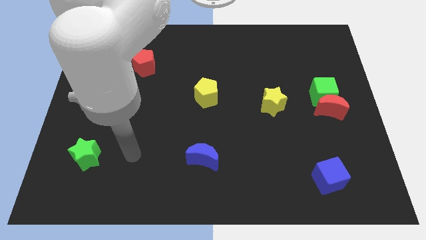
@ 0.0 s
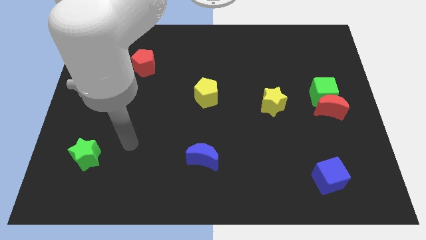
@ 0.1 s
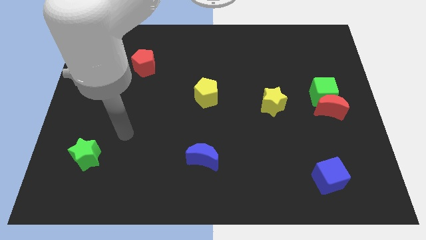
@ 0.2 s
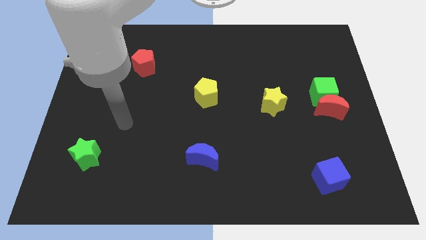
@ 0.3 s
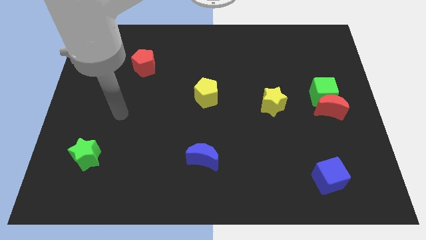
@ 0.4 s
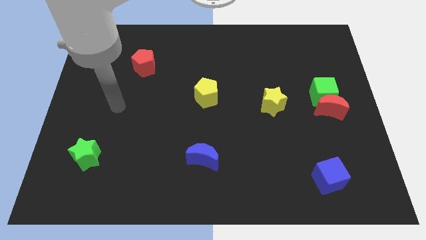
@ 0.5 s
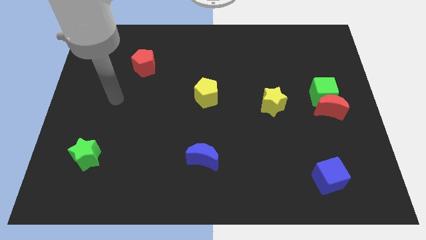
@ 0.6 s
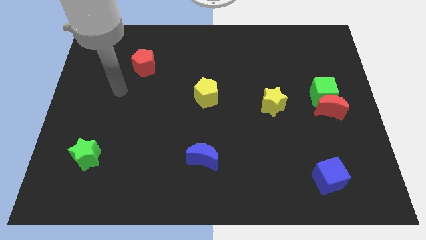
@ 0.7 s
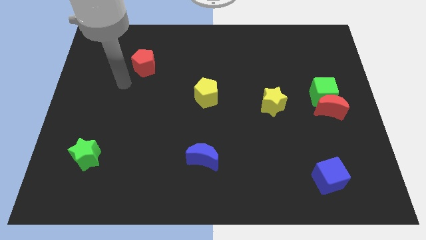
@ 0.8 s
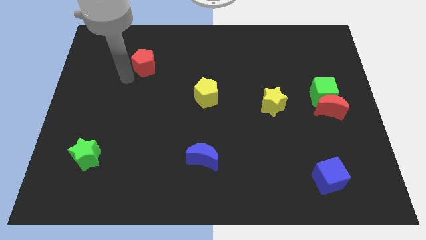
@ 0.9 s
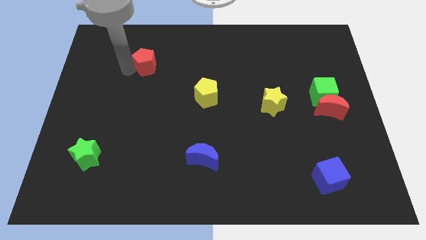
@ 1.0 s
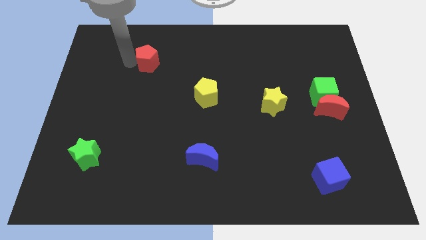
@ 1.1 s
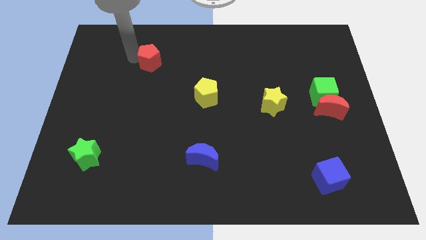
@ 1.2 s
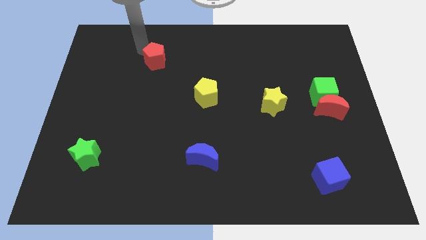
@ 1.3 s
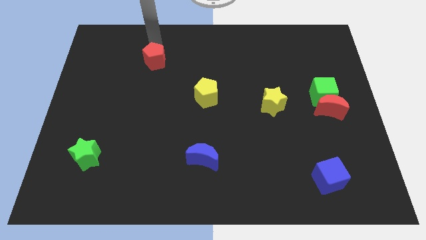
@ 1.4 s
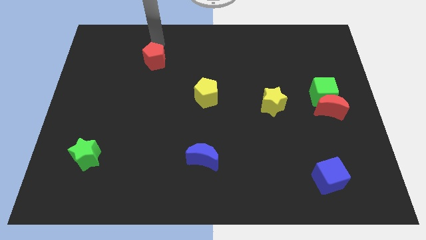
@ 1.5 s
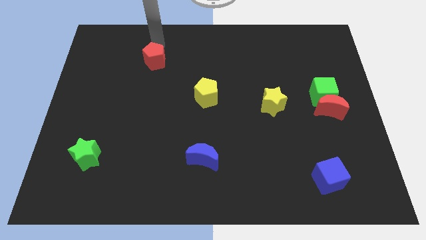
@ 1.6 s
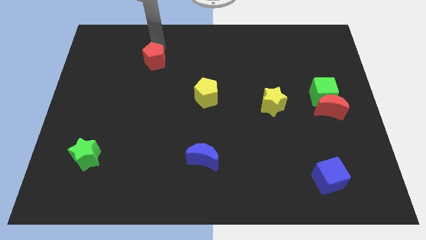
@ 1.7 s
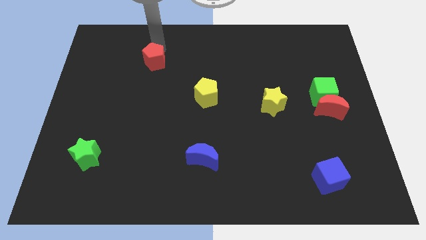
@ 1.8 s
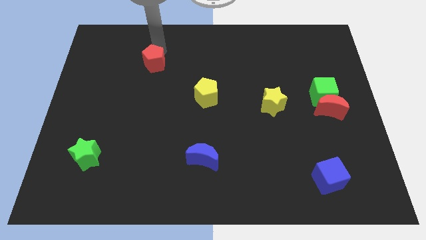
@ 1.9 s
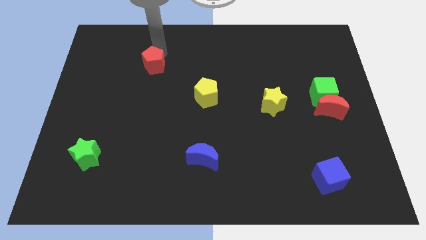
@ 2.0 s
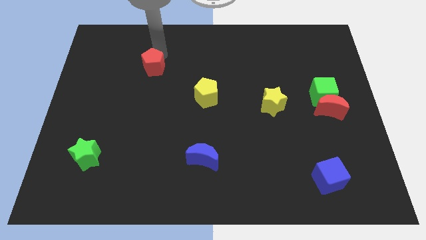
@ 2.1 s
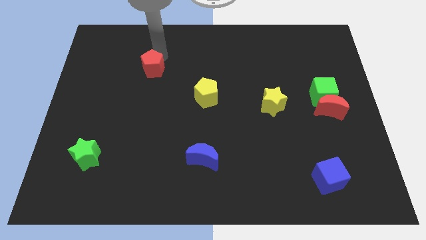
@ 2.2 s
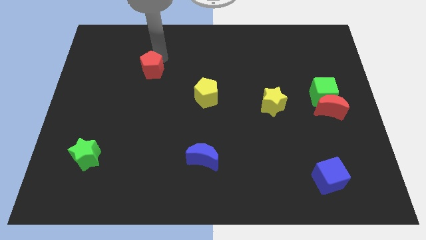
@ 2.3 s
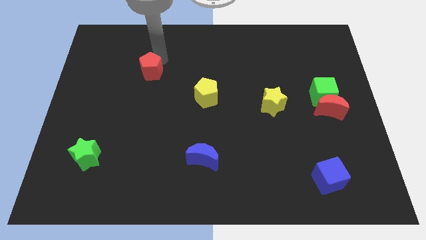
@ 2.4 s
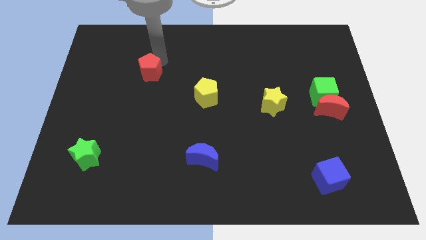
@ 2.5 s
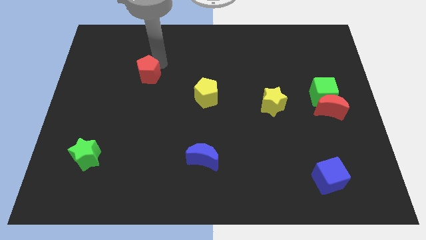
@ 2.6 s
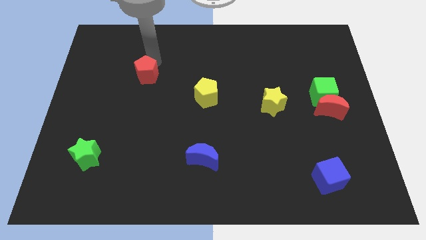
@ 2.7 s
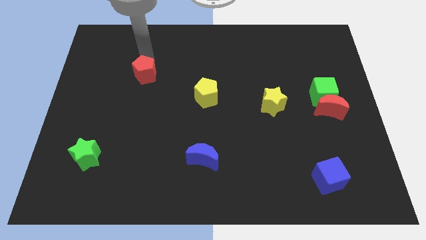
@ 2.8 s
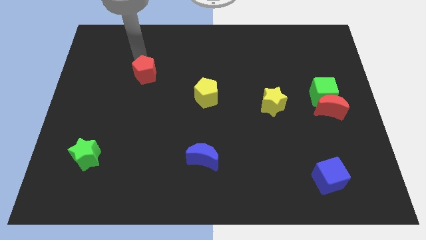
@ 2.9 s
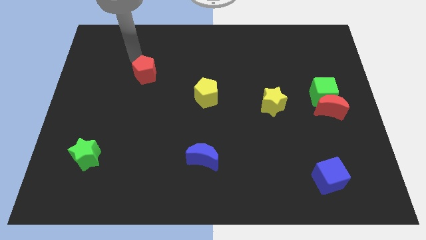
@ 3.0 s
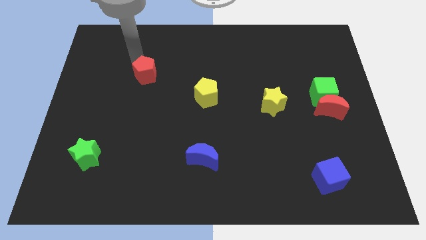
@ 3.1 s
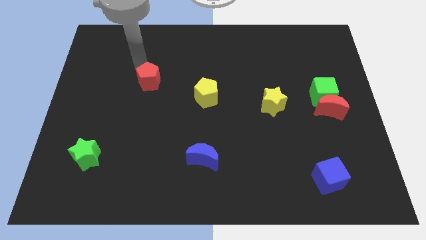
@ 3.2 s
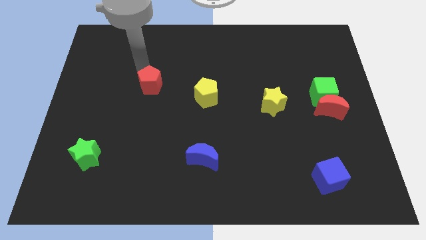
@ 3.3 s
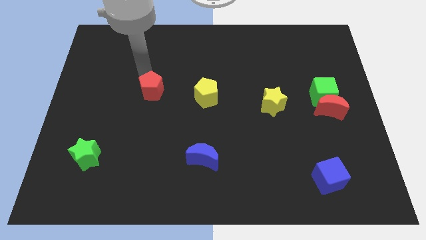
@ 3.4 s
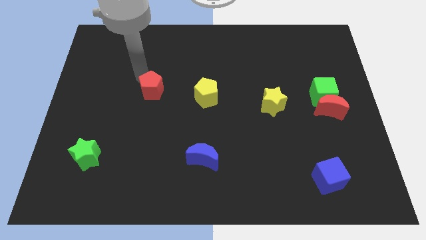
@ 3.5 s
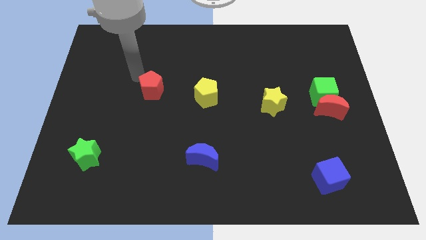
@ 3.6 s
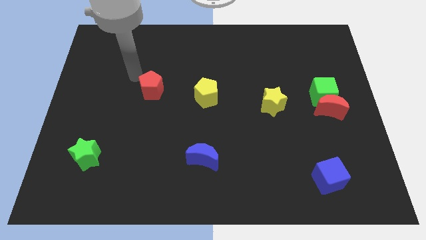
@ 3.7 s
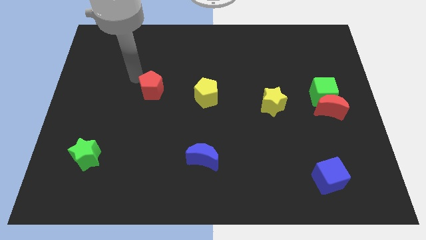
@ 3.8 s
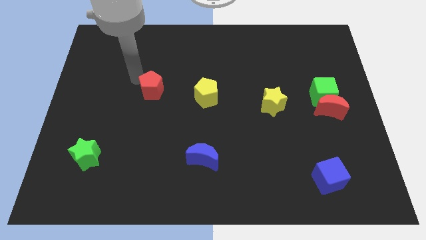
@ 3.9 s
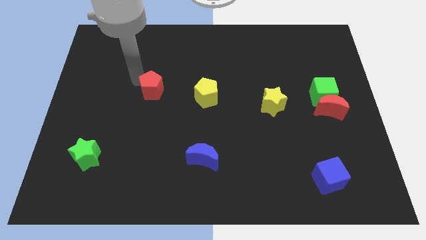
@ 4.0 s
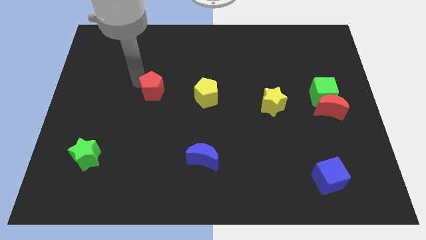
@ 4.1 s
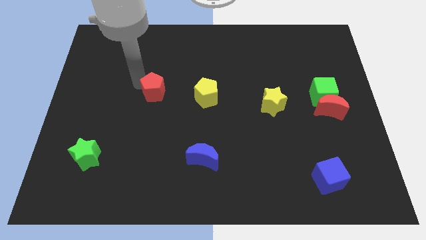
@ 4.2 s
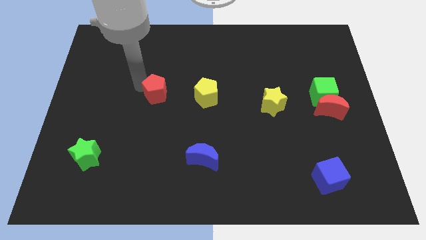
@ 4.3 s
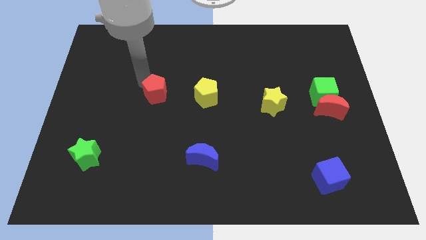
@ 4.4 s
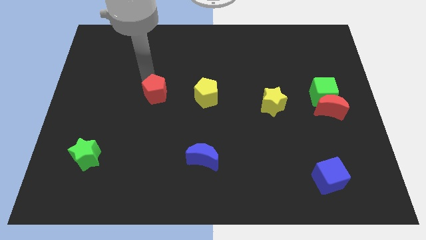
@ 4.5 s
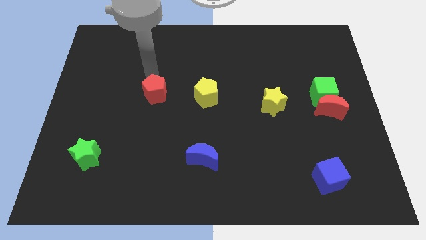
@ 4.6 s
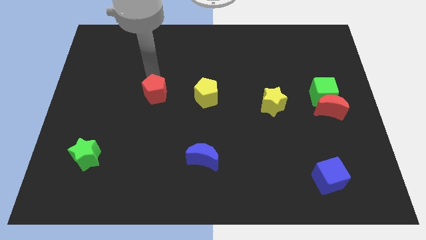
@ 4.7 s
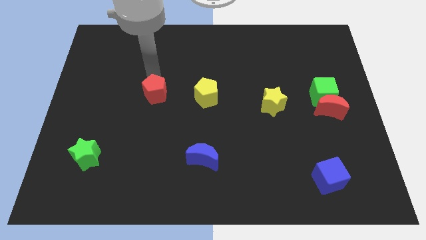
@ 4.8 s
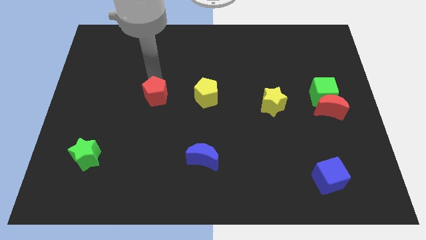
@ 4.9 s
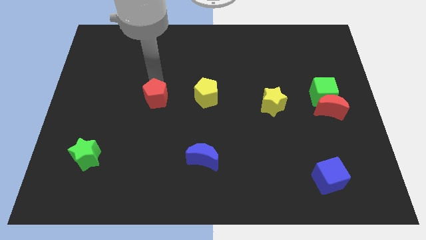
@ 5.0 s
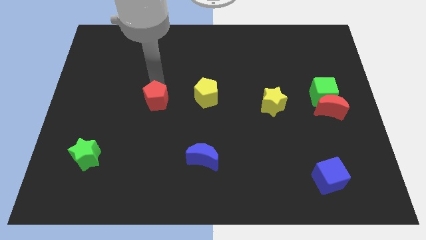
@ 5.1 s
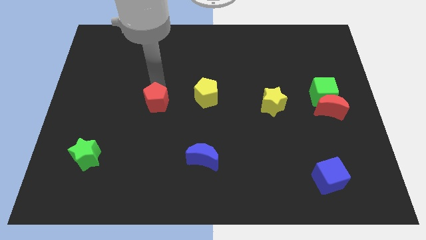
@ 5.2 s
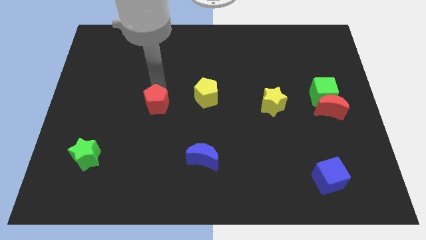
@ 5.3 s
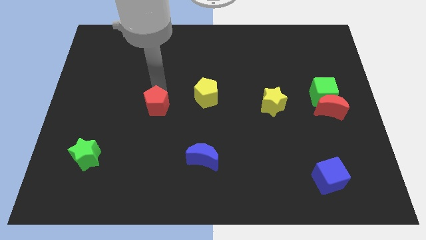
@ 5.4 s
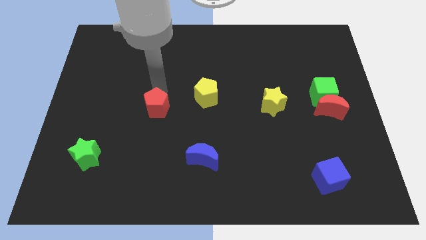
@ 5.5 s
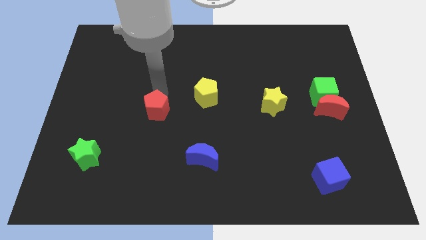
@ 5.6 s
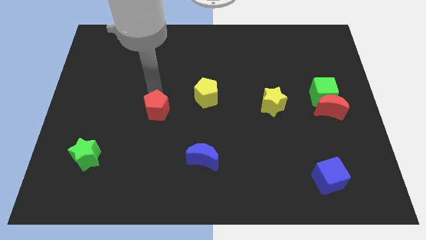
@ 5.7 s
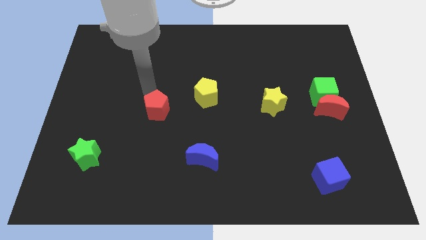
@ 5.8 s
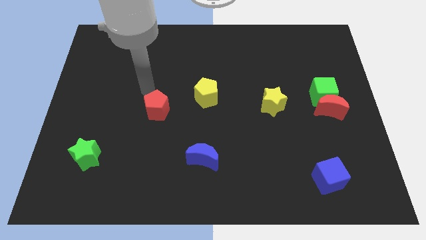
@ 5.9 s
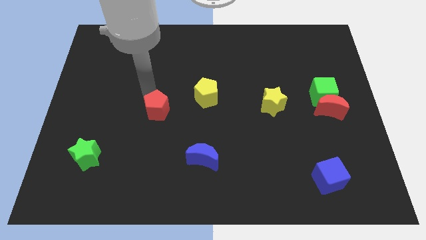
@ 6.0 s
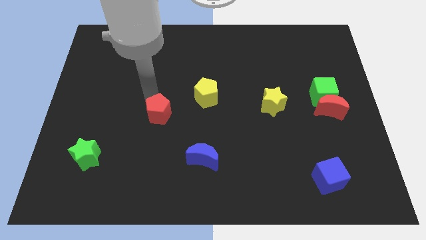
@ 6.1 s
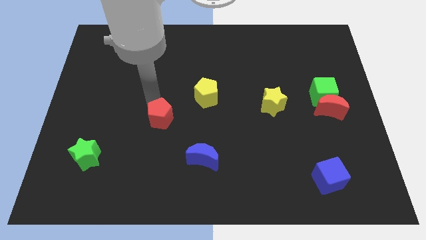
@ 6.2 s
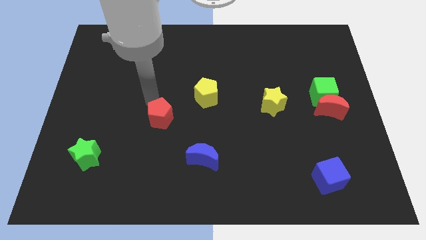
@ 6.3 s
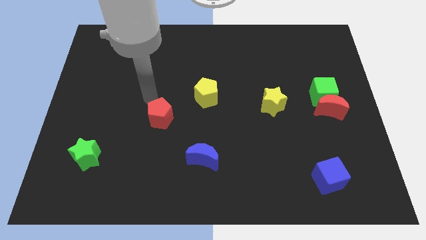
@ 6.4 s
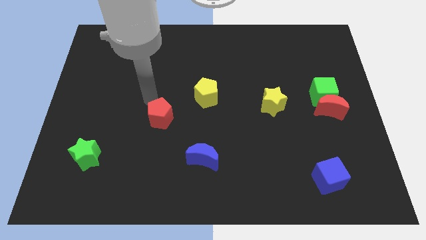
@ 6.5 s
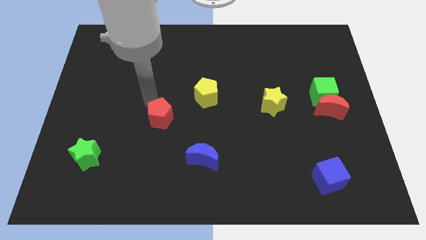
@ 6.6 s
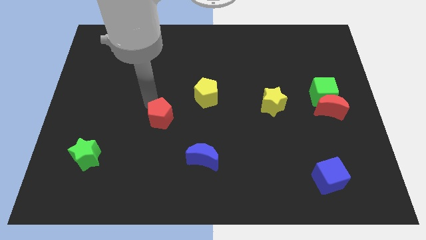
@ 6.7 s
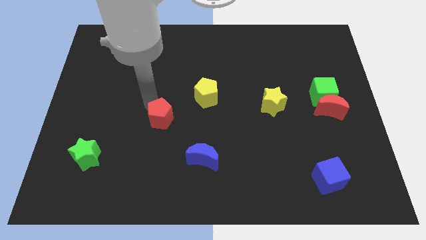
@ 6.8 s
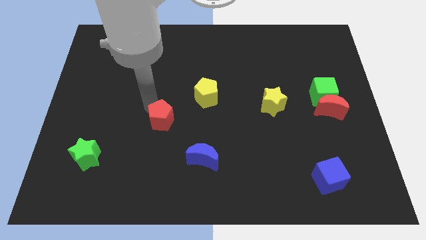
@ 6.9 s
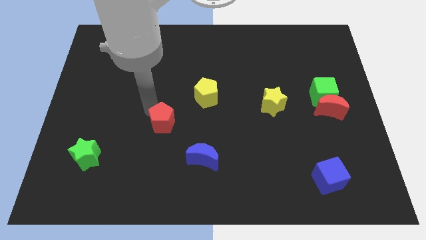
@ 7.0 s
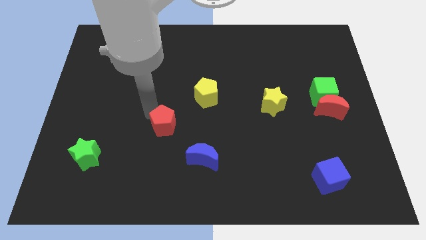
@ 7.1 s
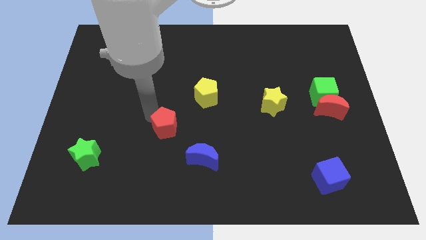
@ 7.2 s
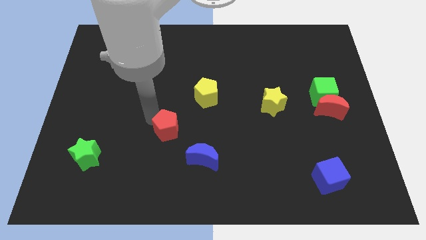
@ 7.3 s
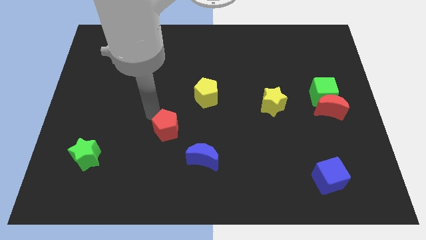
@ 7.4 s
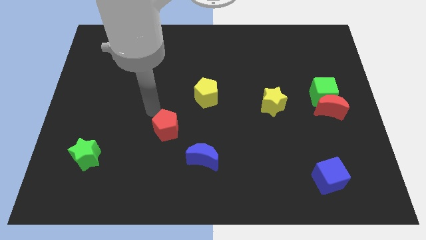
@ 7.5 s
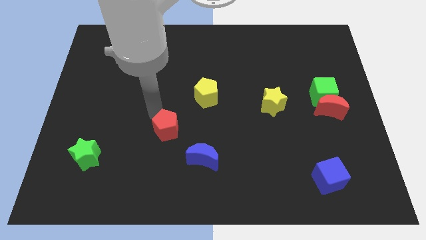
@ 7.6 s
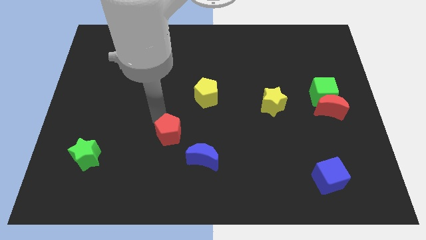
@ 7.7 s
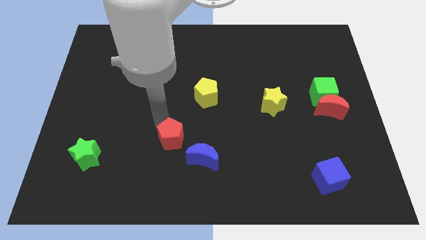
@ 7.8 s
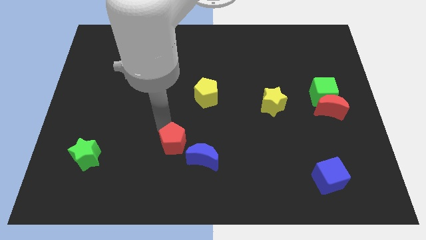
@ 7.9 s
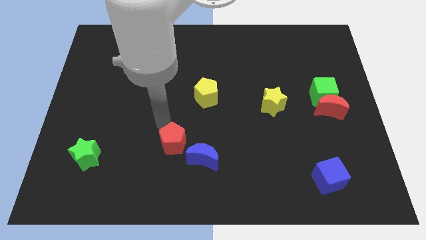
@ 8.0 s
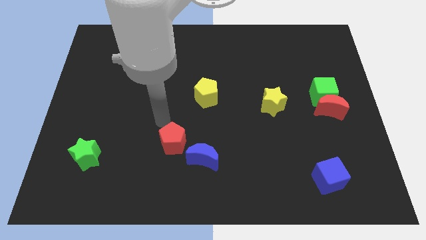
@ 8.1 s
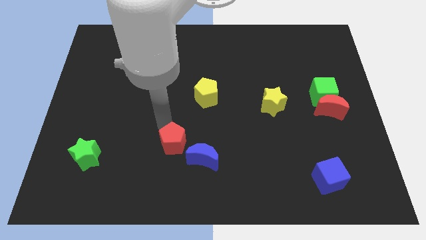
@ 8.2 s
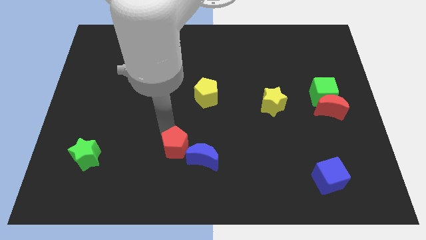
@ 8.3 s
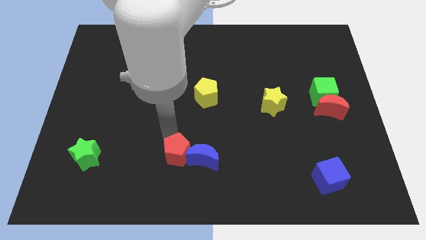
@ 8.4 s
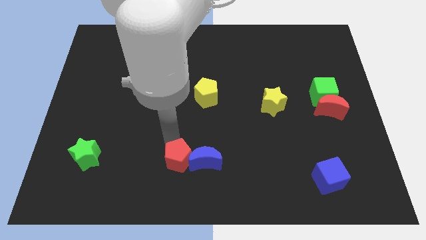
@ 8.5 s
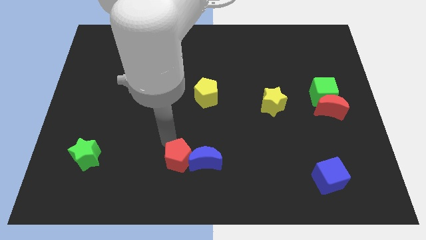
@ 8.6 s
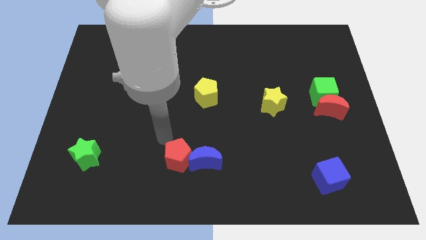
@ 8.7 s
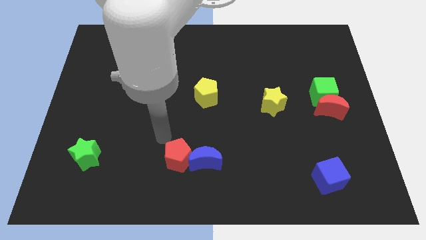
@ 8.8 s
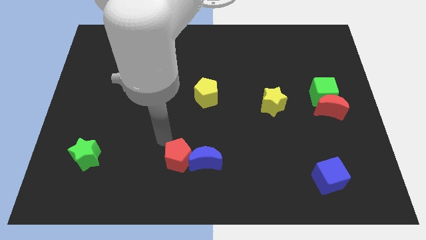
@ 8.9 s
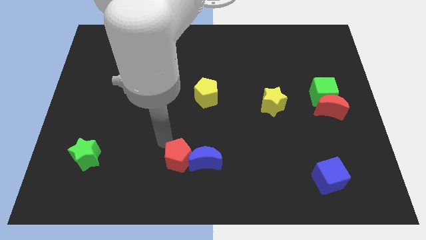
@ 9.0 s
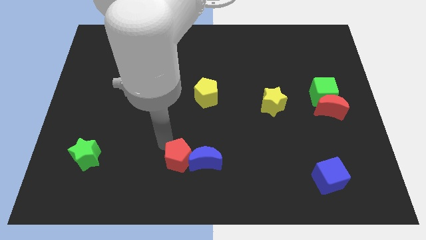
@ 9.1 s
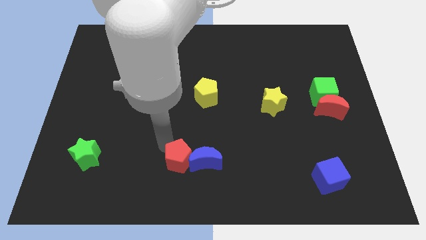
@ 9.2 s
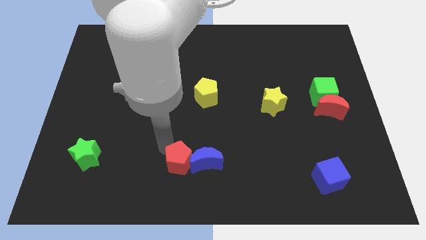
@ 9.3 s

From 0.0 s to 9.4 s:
slide the red pentagon to the bottom side
